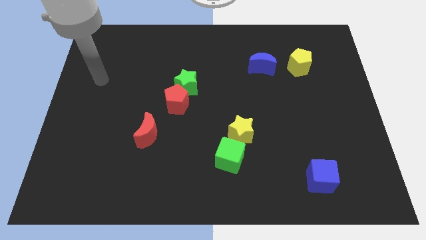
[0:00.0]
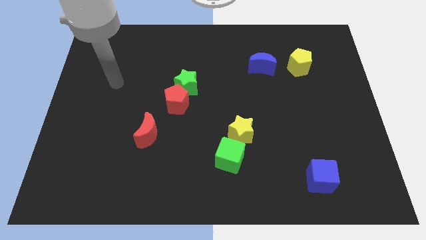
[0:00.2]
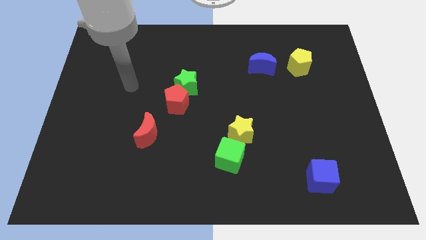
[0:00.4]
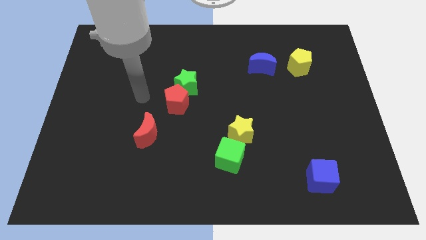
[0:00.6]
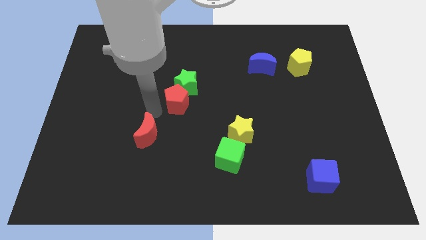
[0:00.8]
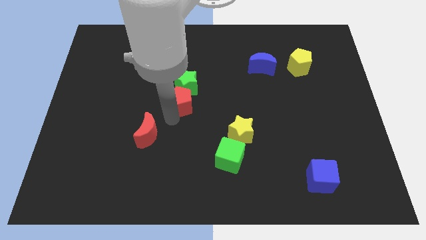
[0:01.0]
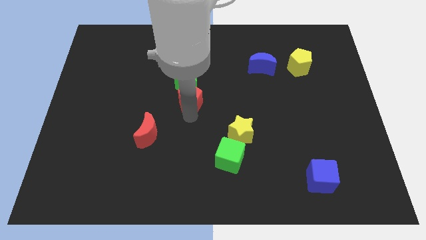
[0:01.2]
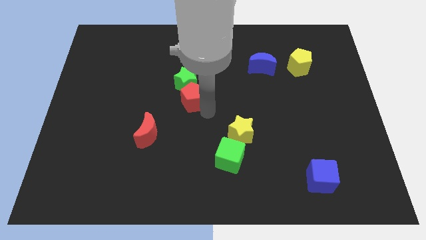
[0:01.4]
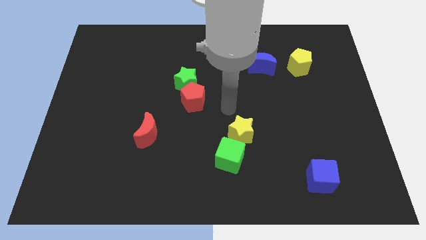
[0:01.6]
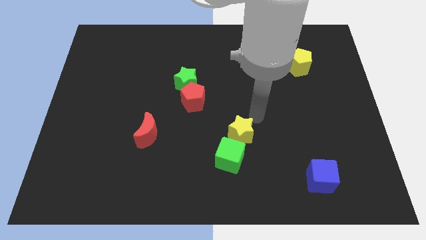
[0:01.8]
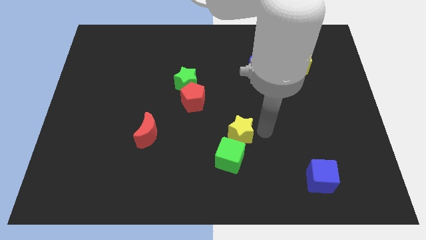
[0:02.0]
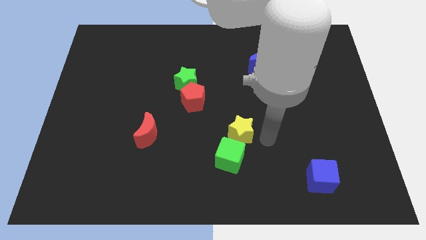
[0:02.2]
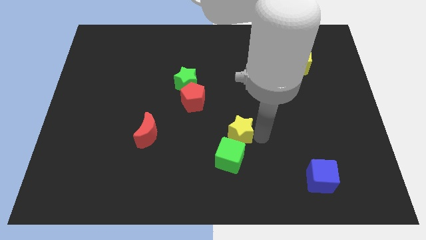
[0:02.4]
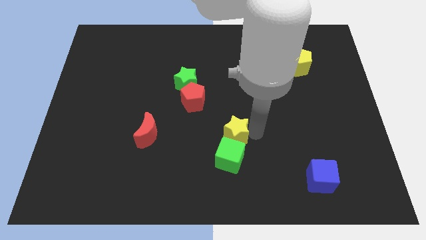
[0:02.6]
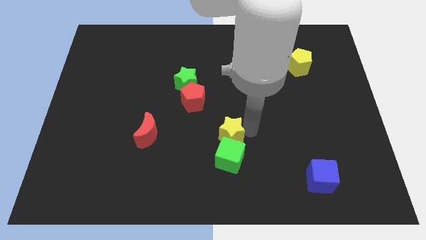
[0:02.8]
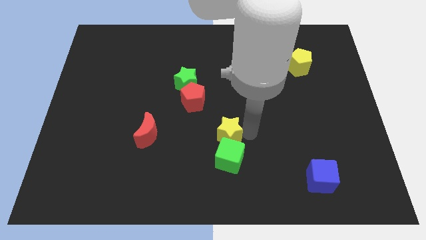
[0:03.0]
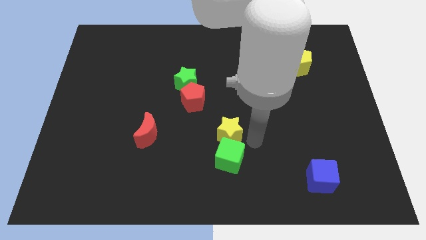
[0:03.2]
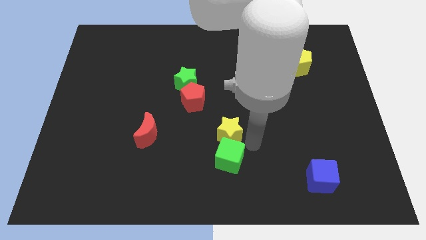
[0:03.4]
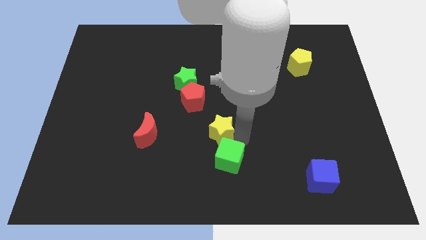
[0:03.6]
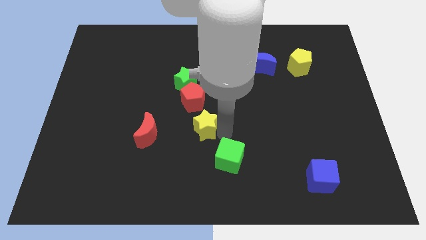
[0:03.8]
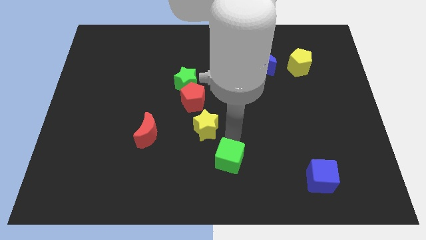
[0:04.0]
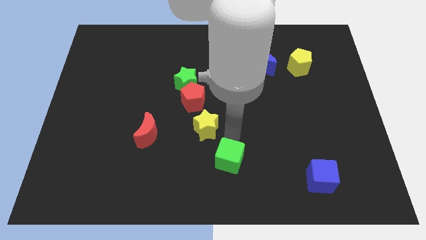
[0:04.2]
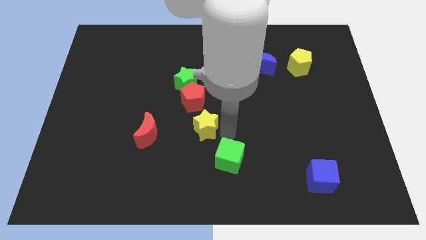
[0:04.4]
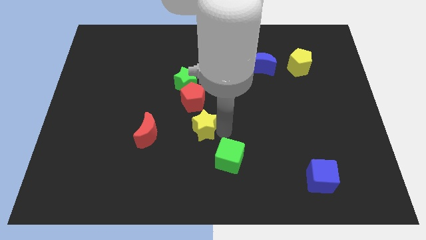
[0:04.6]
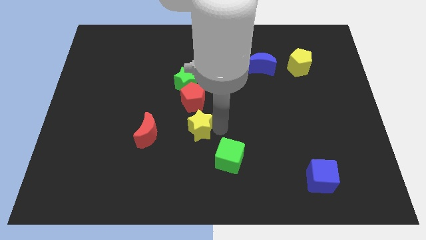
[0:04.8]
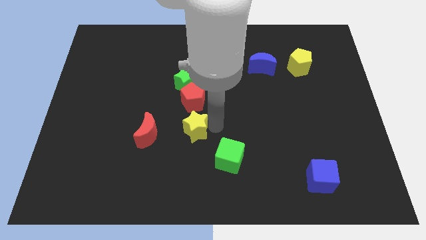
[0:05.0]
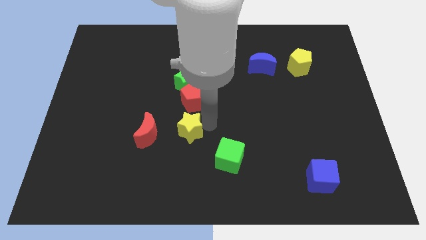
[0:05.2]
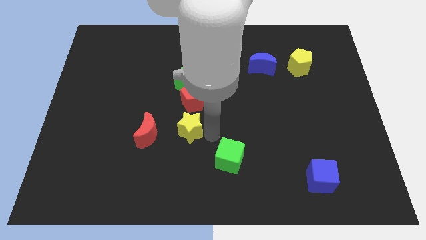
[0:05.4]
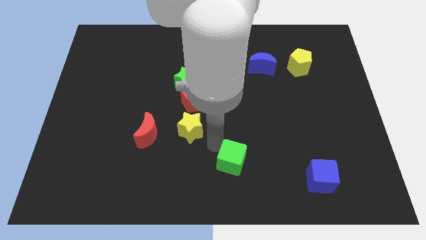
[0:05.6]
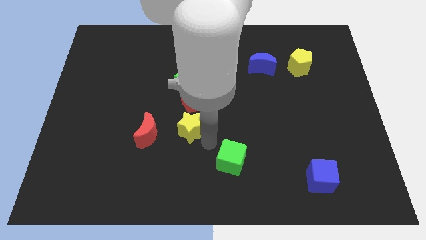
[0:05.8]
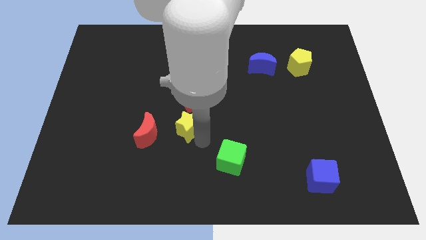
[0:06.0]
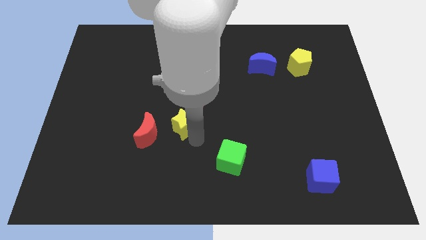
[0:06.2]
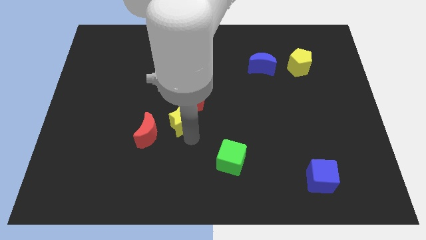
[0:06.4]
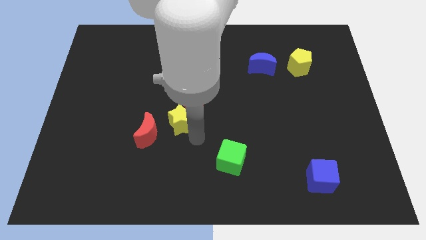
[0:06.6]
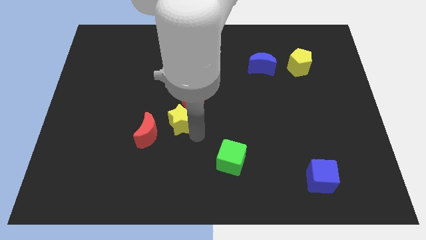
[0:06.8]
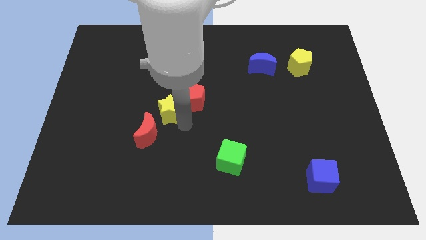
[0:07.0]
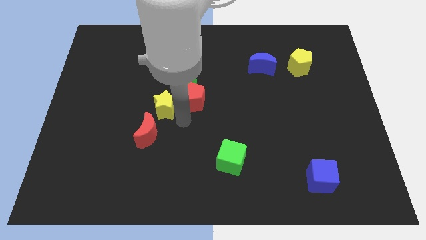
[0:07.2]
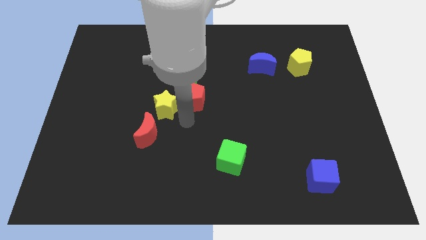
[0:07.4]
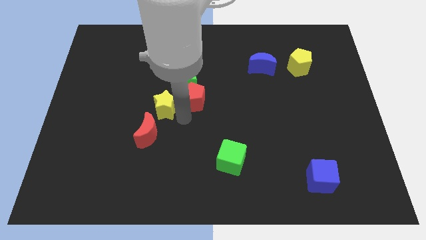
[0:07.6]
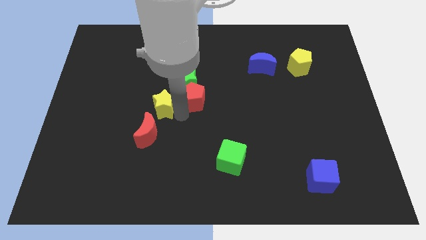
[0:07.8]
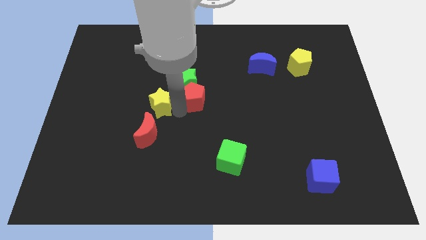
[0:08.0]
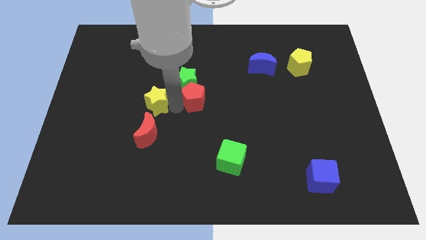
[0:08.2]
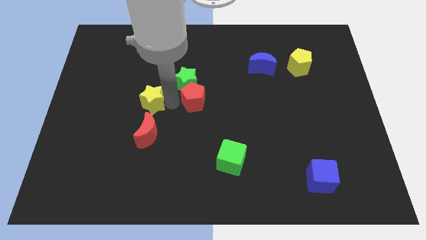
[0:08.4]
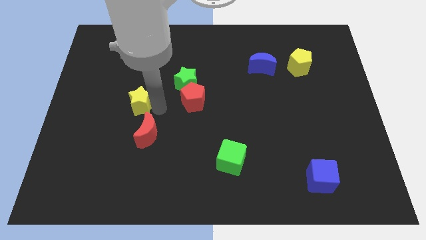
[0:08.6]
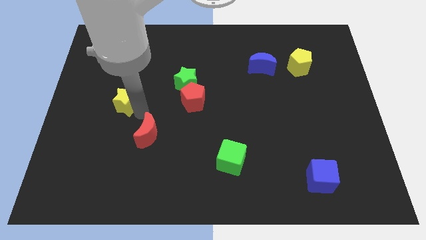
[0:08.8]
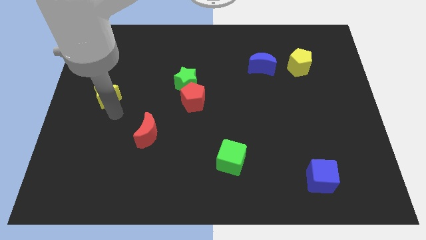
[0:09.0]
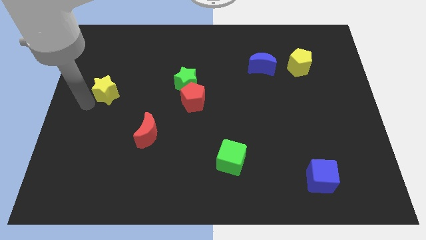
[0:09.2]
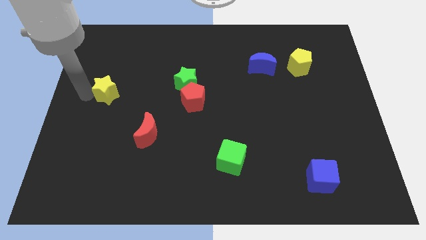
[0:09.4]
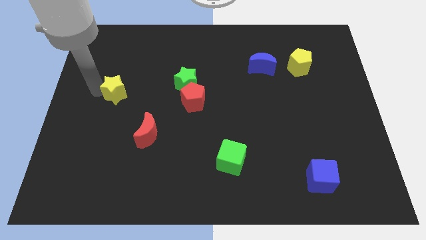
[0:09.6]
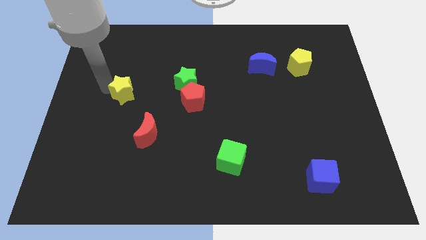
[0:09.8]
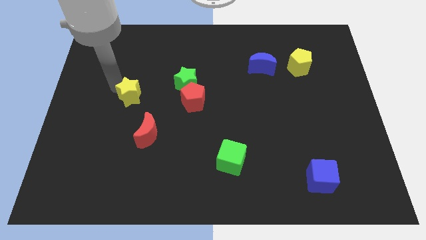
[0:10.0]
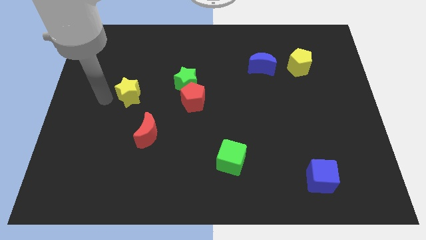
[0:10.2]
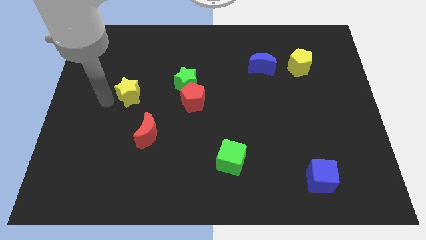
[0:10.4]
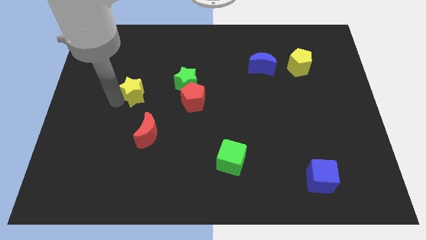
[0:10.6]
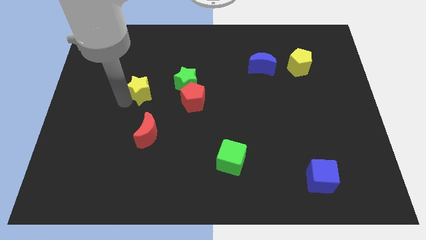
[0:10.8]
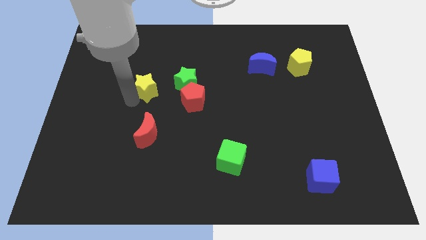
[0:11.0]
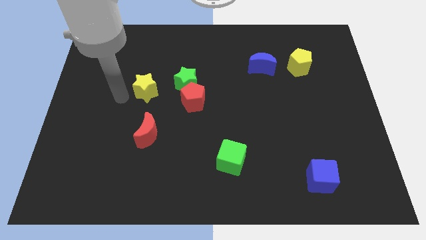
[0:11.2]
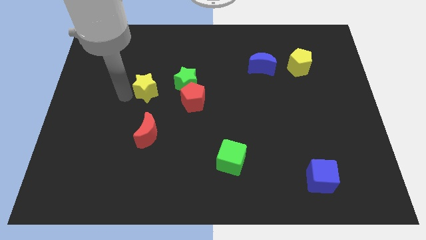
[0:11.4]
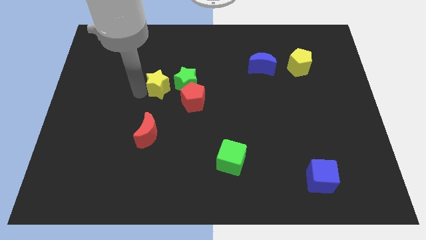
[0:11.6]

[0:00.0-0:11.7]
slide the yellow star to the top left of the red pentagon

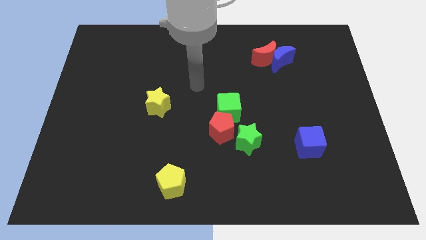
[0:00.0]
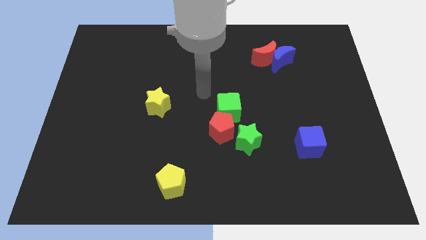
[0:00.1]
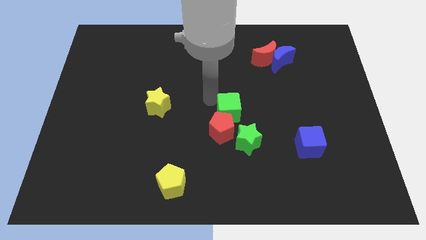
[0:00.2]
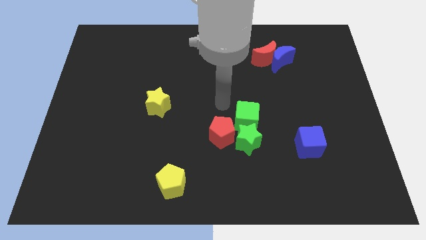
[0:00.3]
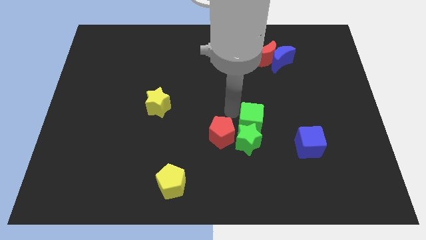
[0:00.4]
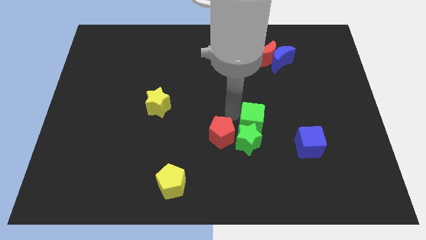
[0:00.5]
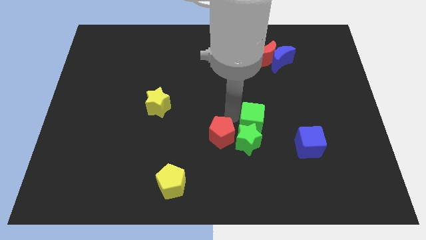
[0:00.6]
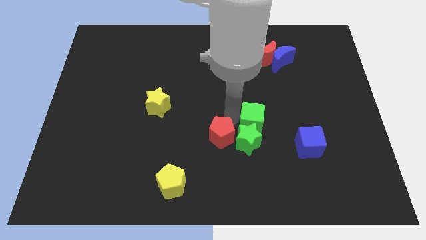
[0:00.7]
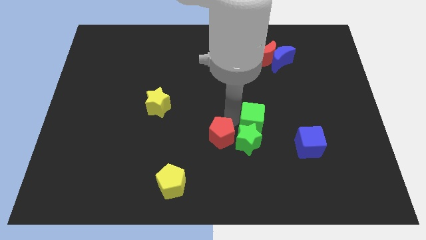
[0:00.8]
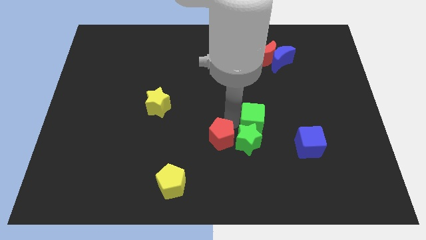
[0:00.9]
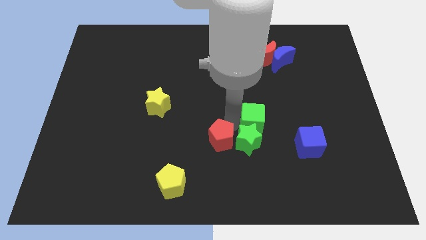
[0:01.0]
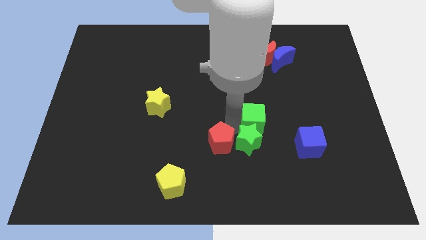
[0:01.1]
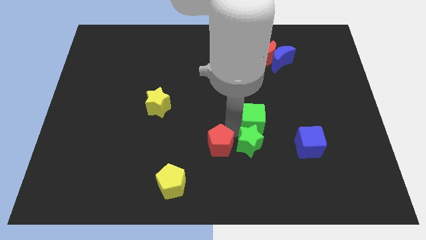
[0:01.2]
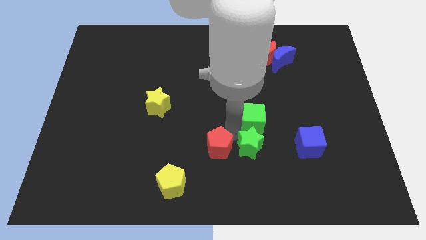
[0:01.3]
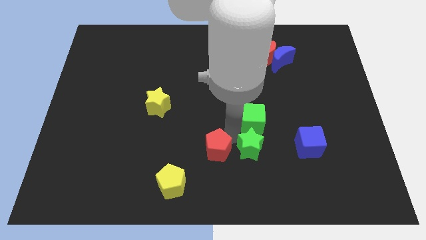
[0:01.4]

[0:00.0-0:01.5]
slide the red pentagon to the top right side of the yellow pentagon
